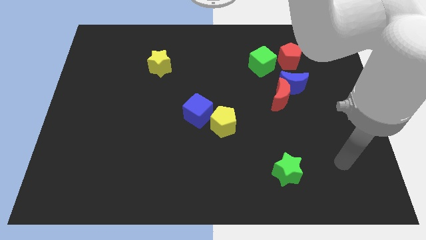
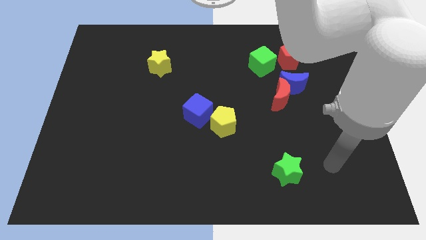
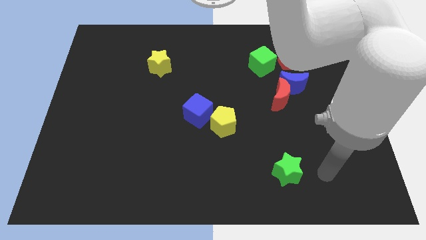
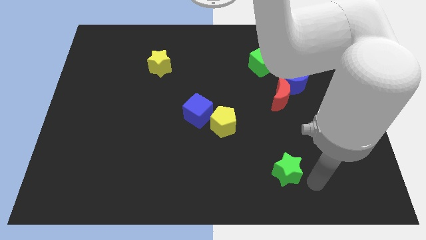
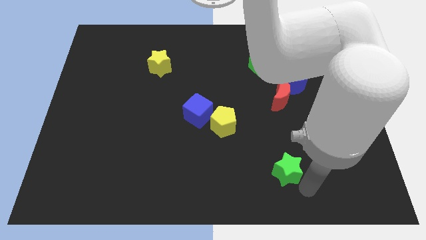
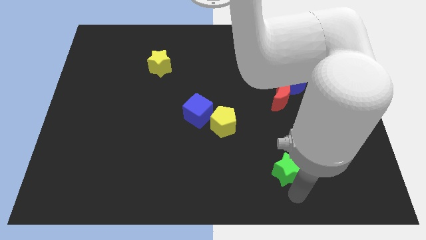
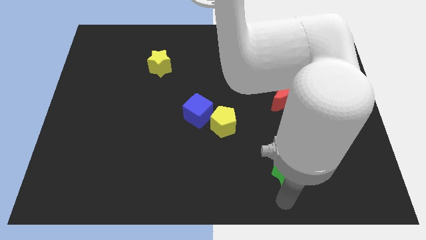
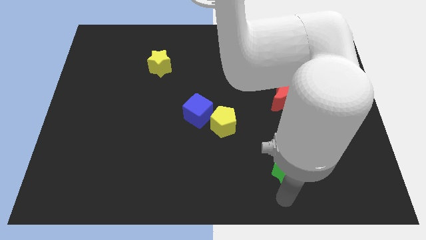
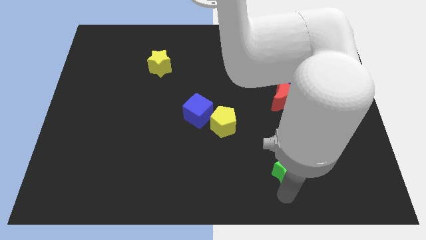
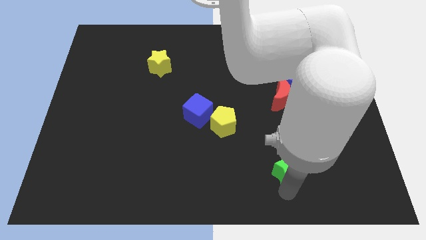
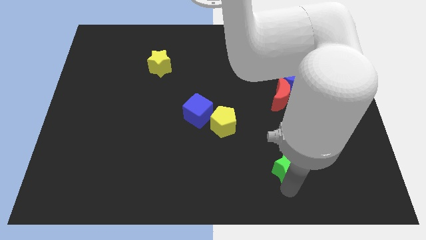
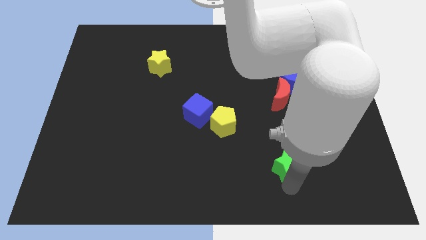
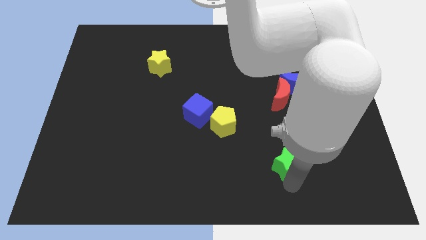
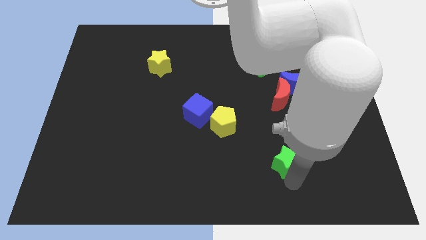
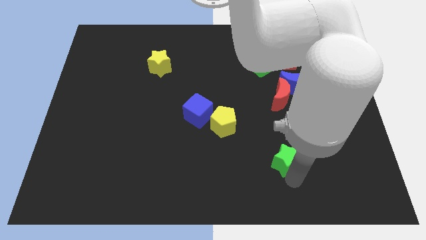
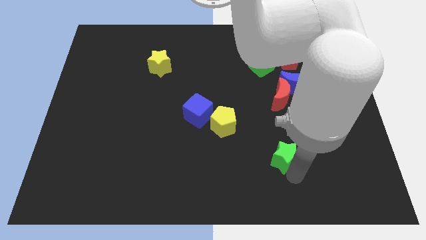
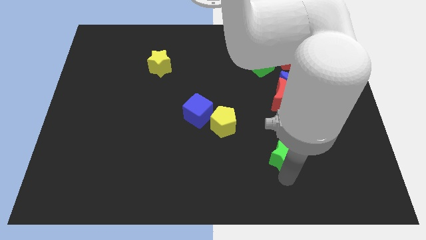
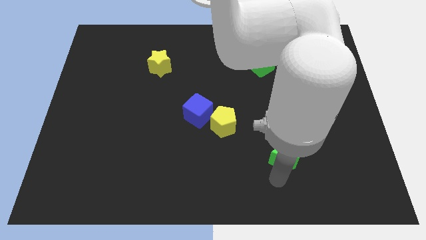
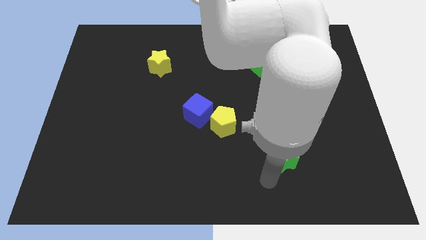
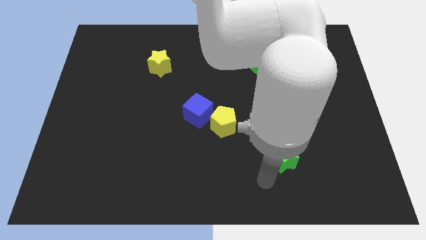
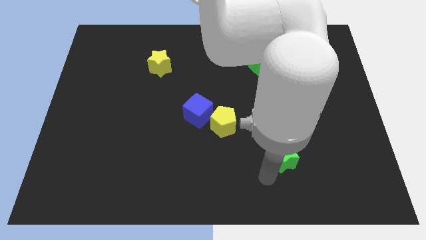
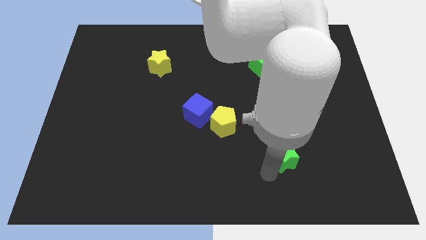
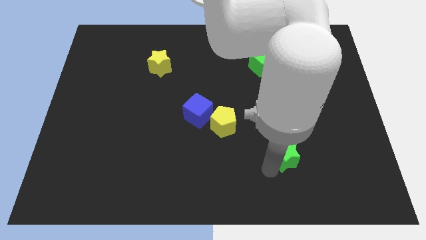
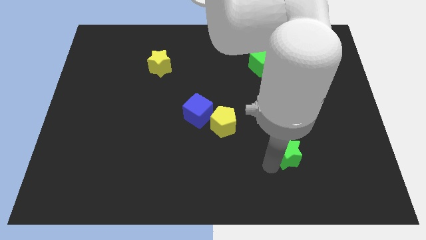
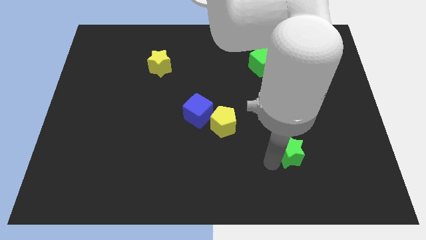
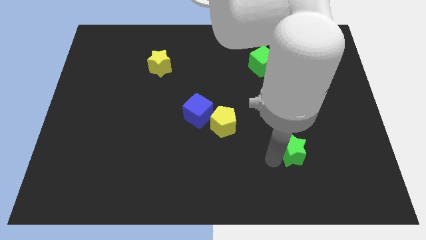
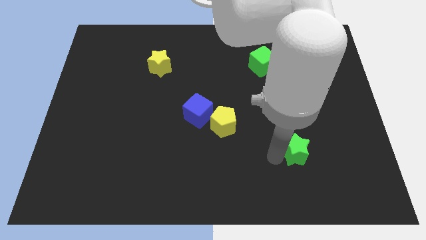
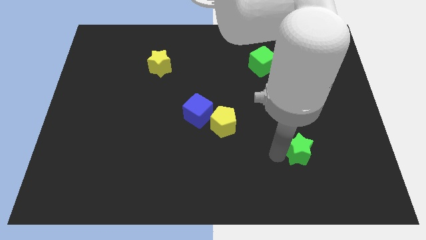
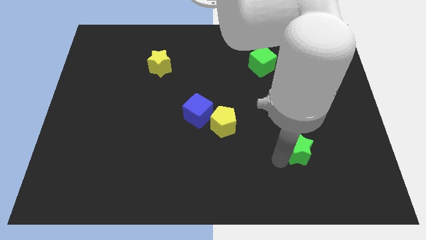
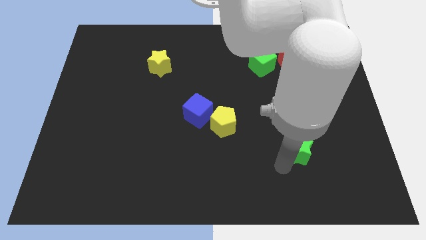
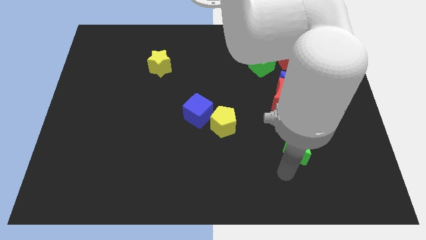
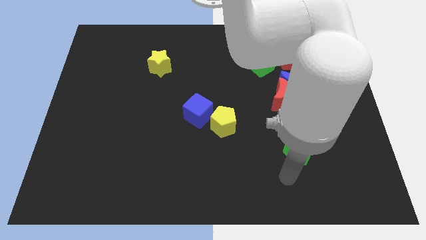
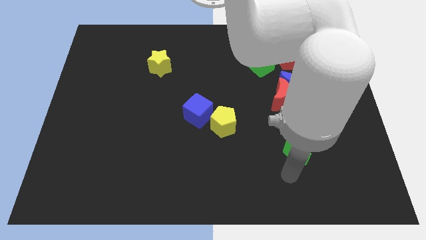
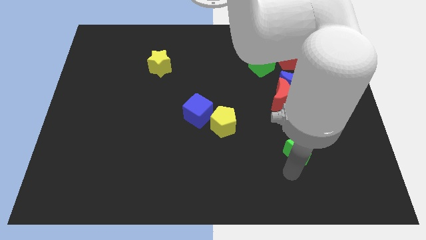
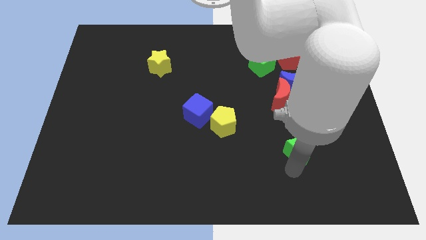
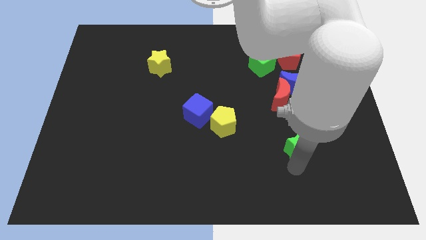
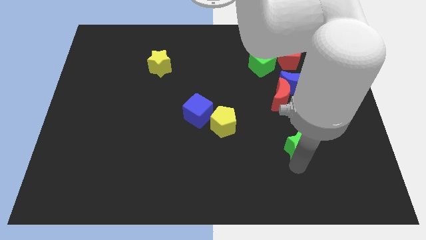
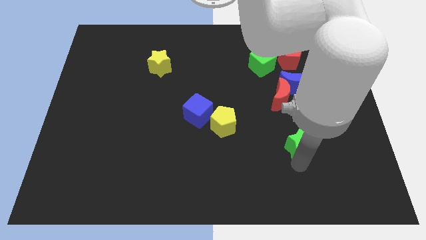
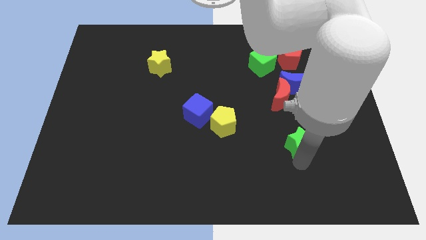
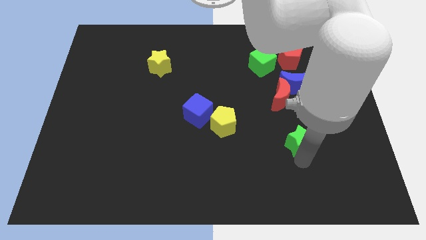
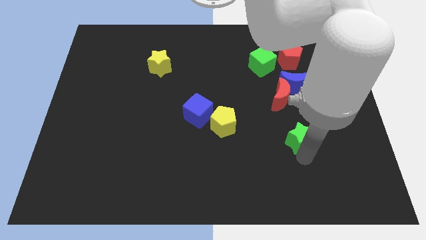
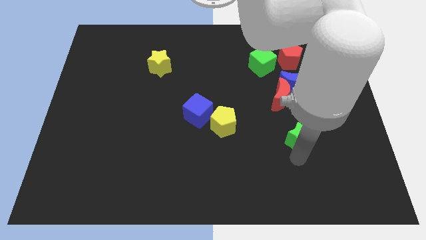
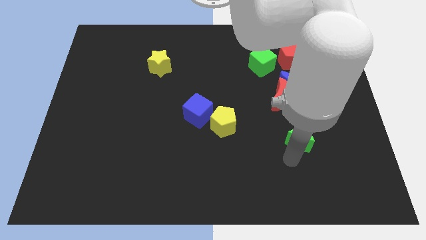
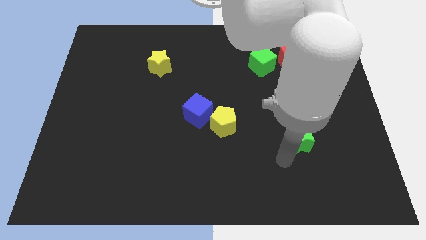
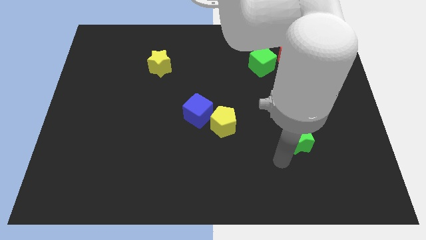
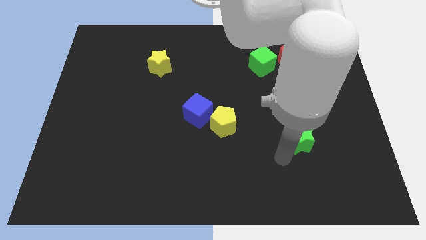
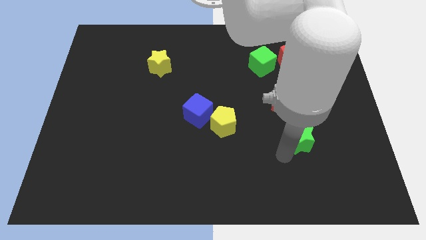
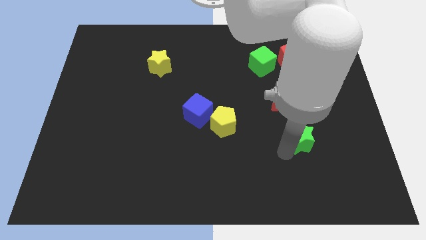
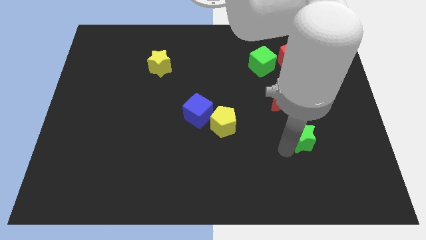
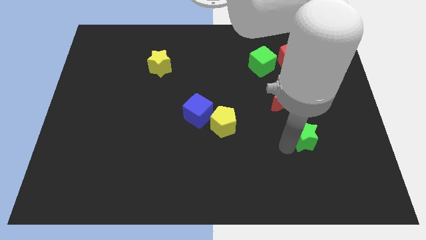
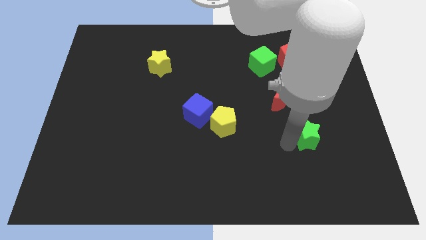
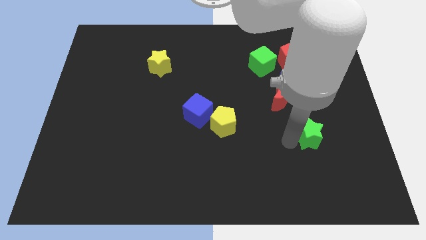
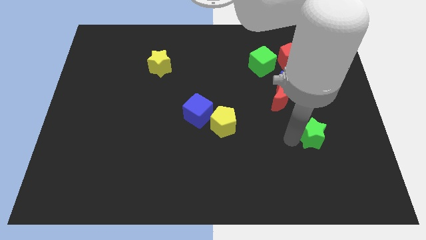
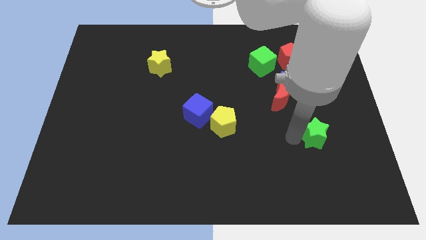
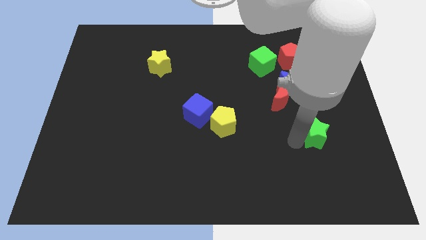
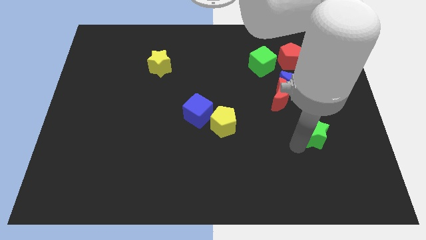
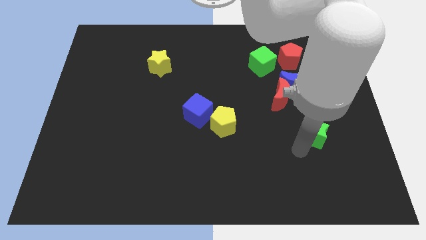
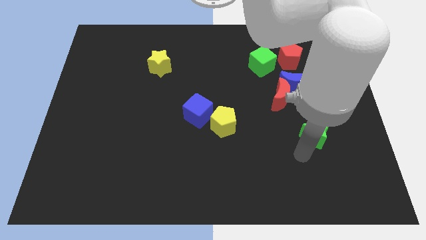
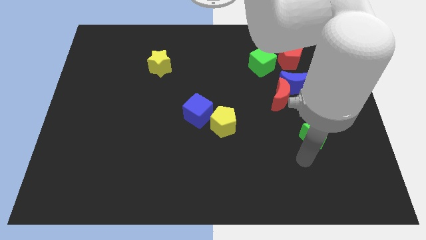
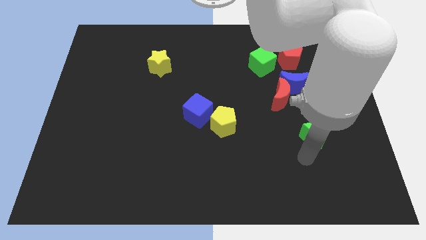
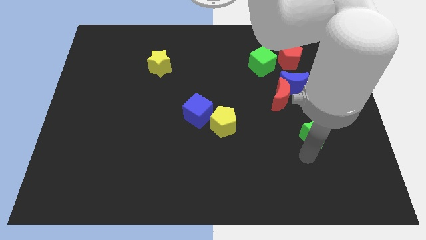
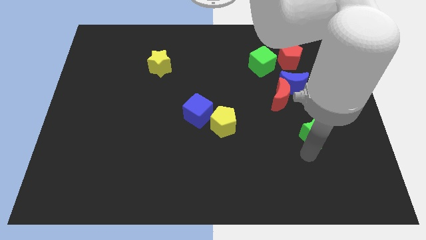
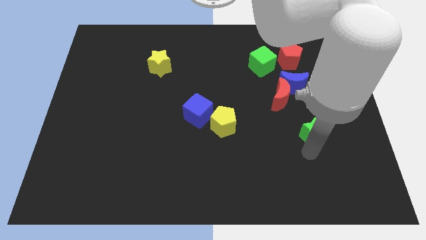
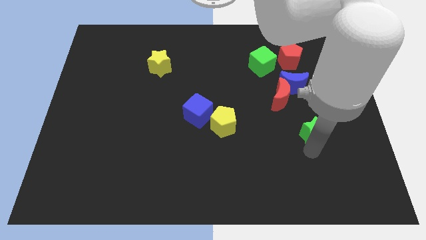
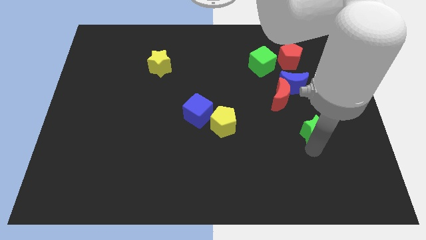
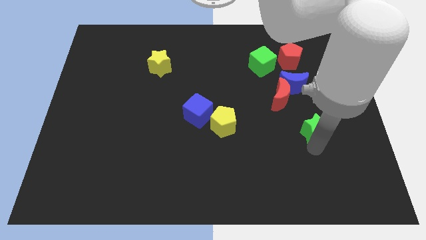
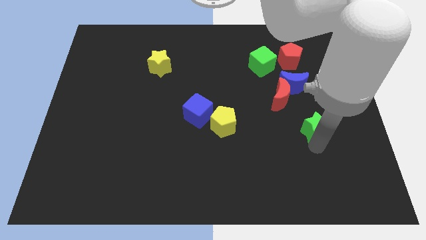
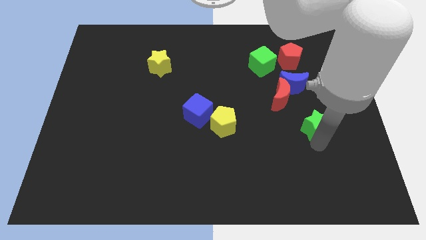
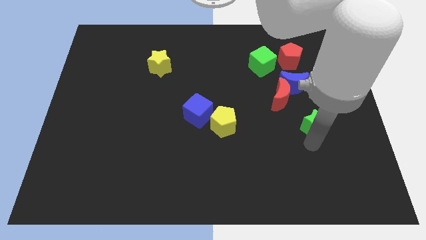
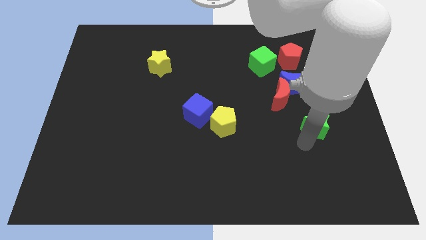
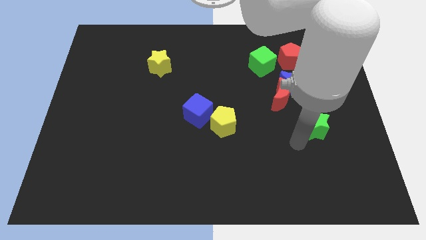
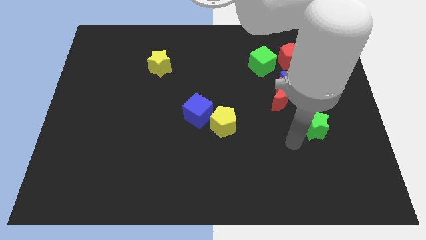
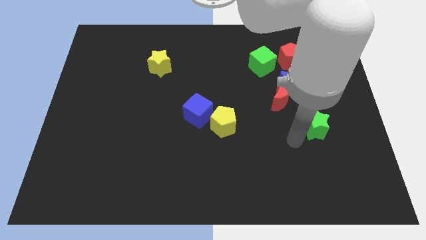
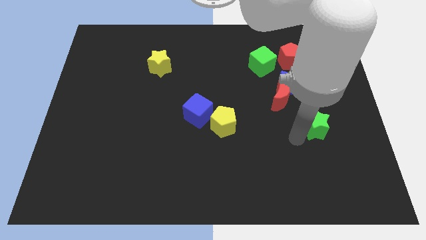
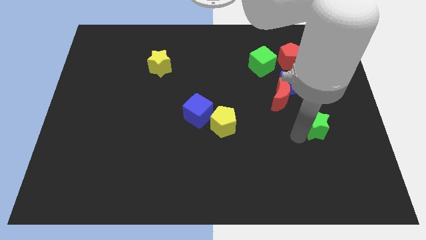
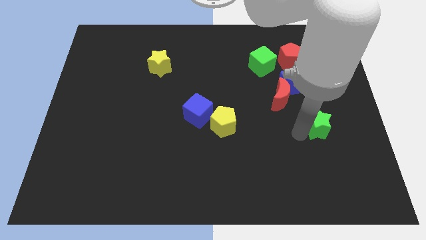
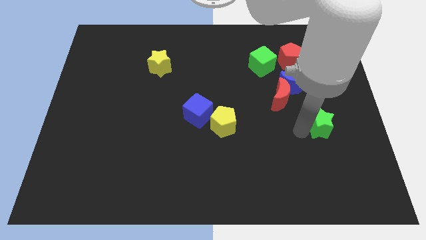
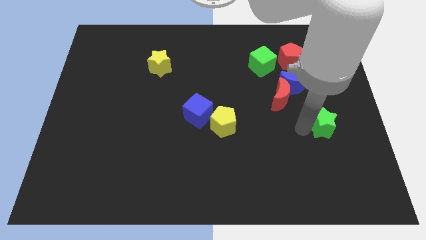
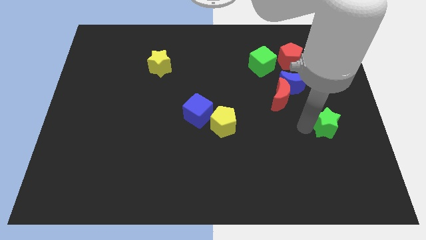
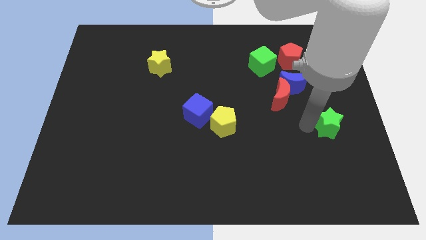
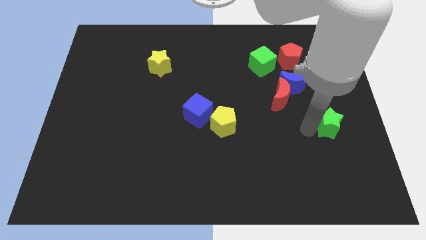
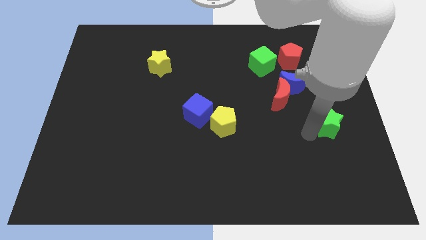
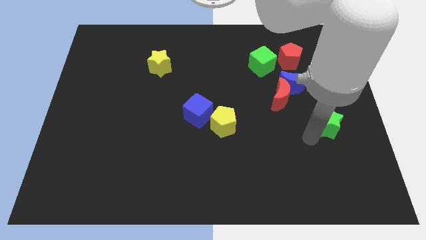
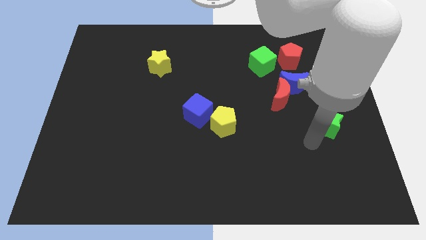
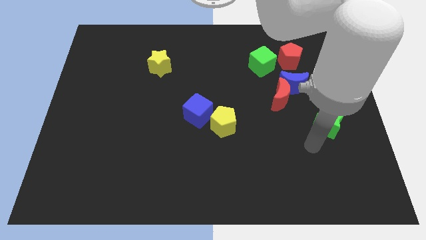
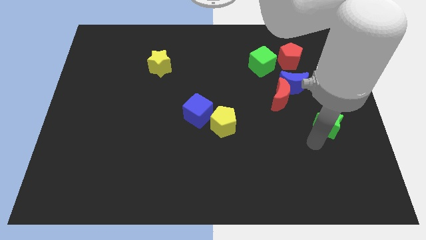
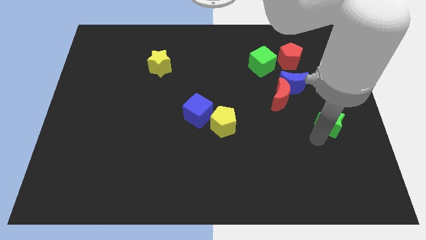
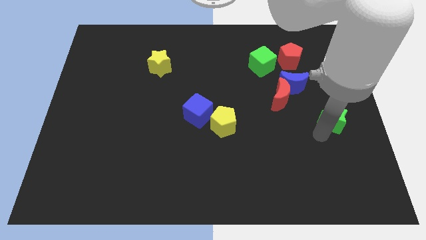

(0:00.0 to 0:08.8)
slide the green star to the right side
